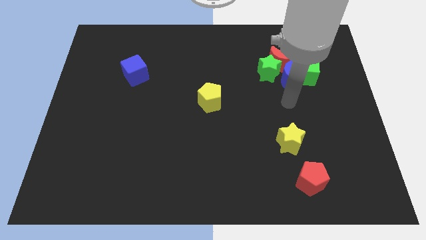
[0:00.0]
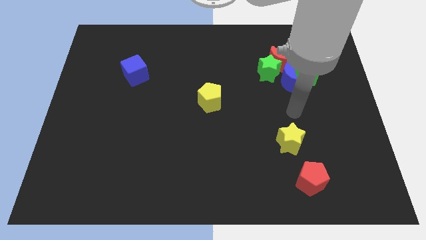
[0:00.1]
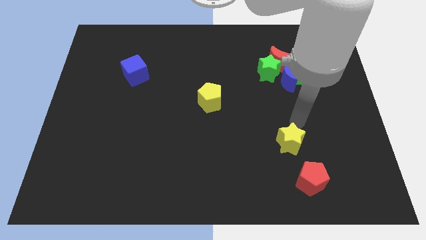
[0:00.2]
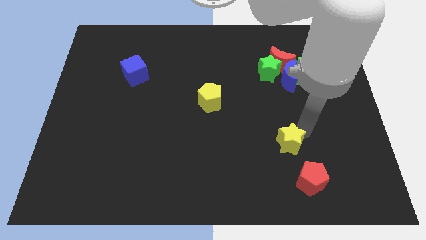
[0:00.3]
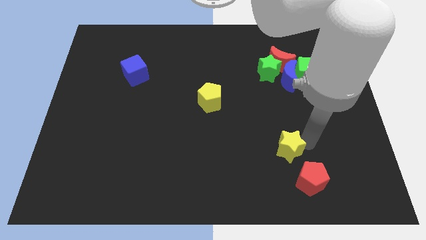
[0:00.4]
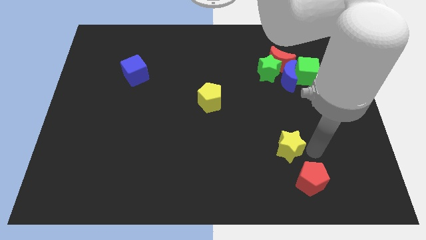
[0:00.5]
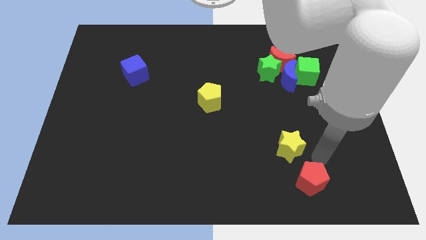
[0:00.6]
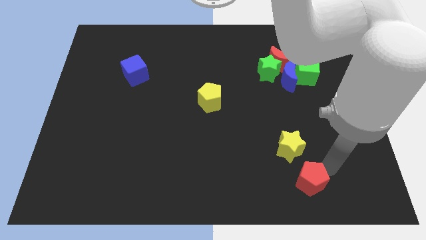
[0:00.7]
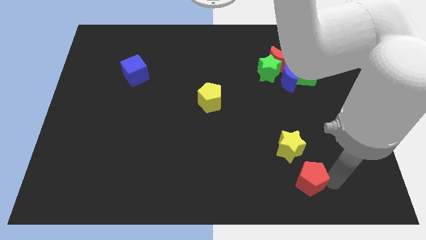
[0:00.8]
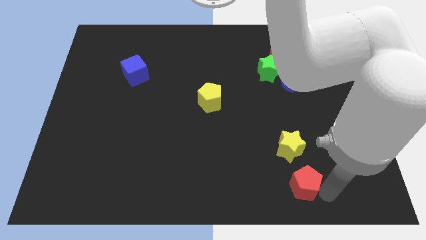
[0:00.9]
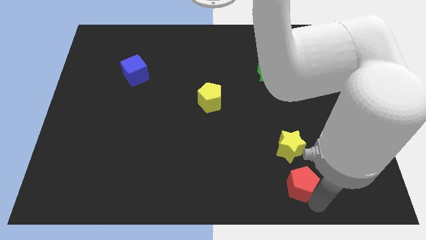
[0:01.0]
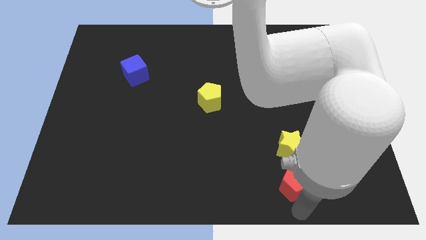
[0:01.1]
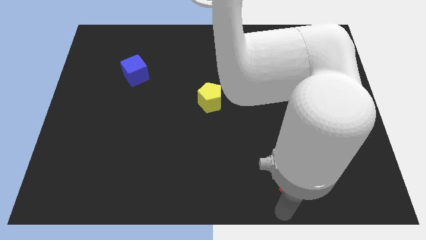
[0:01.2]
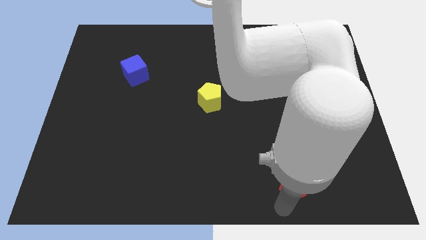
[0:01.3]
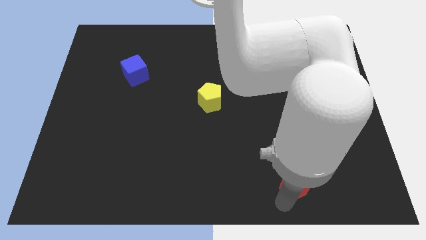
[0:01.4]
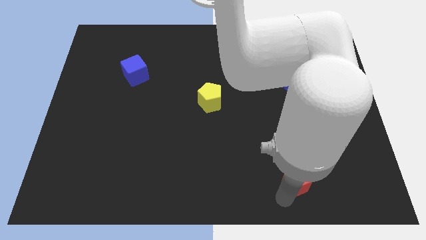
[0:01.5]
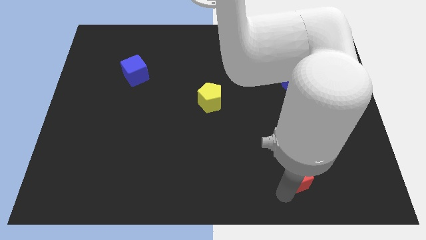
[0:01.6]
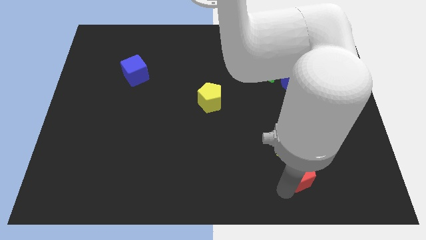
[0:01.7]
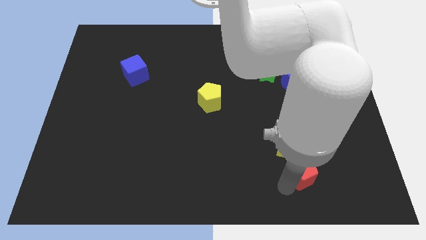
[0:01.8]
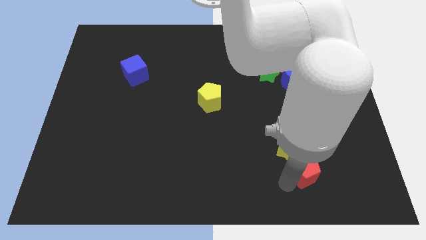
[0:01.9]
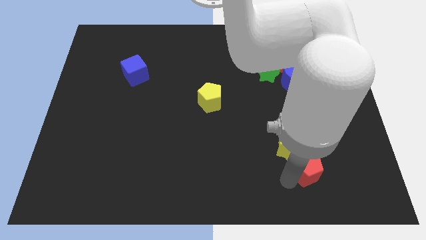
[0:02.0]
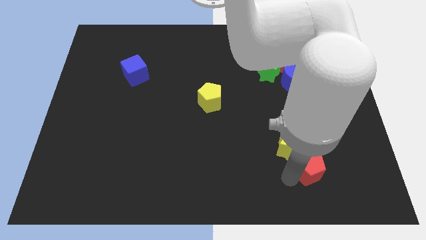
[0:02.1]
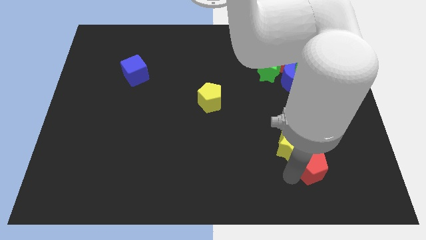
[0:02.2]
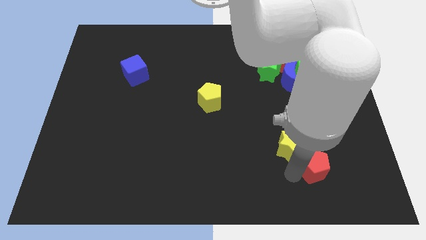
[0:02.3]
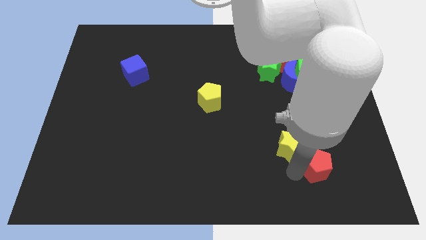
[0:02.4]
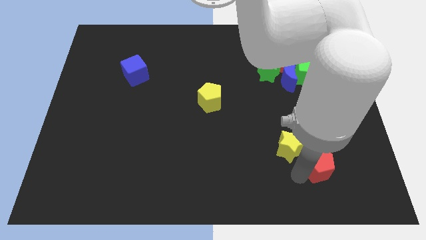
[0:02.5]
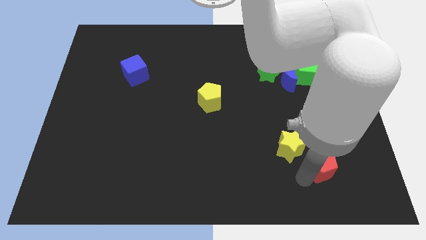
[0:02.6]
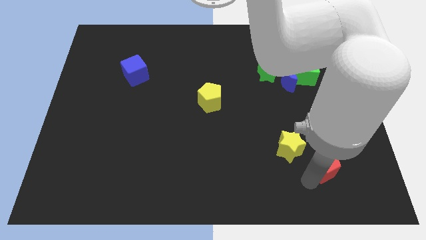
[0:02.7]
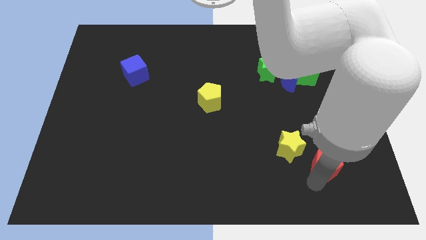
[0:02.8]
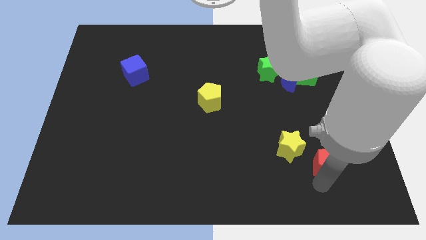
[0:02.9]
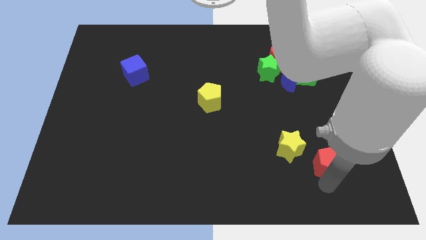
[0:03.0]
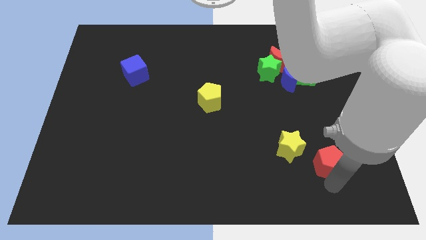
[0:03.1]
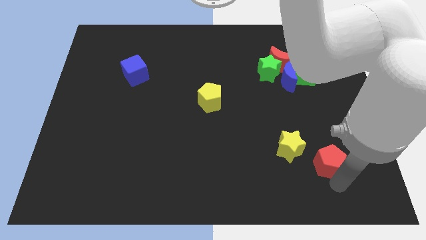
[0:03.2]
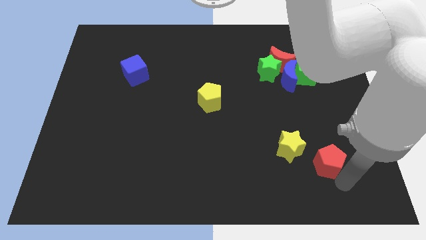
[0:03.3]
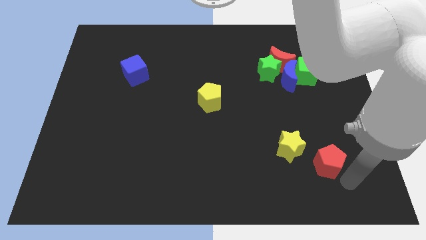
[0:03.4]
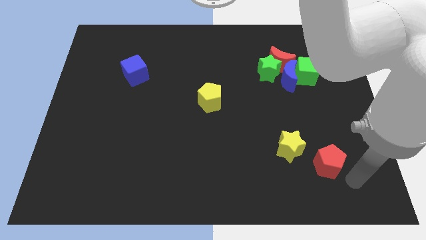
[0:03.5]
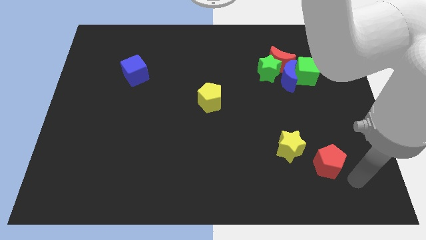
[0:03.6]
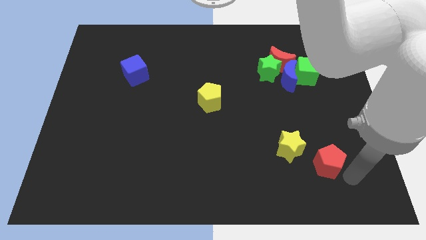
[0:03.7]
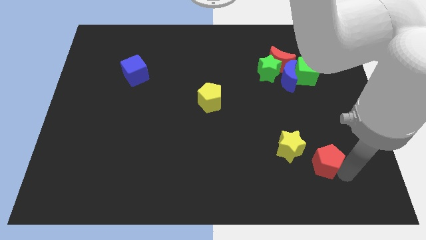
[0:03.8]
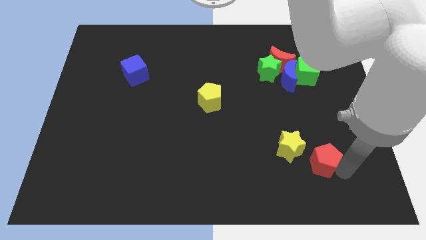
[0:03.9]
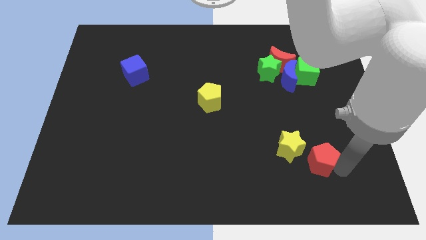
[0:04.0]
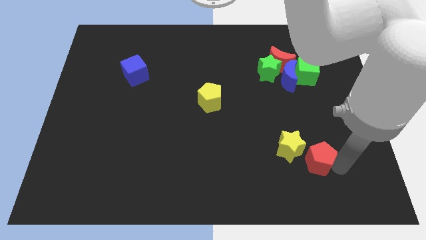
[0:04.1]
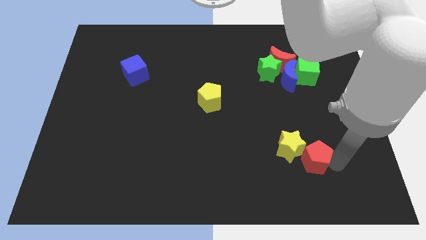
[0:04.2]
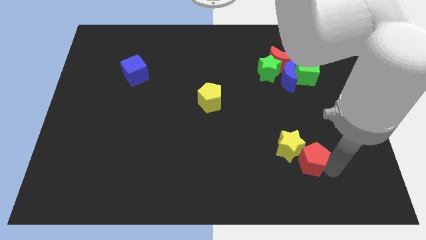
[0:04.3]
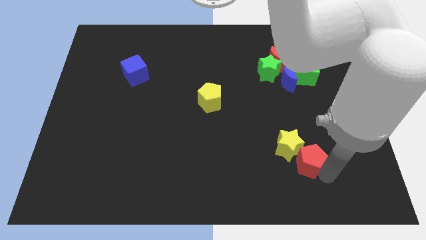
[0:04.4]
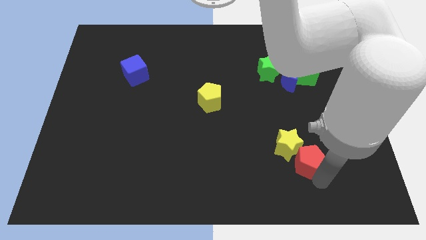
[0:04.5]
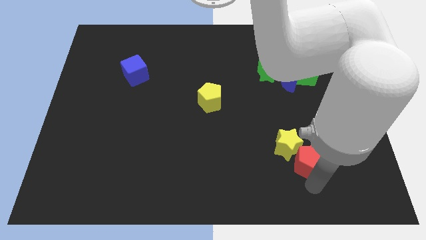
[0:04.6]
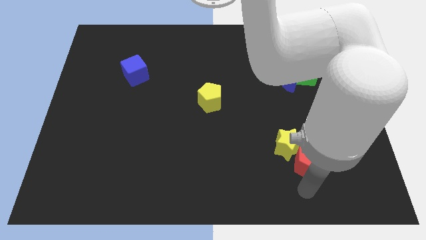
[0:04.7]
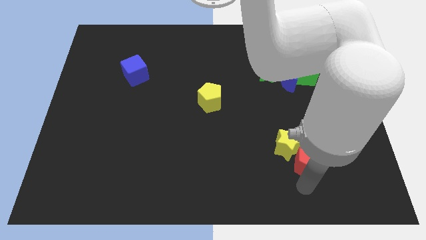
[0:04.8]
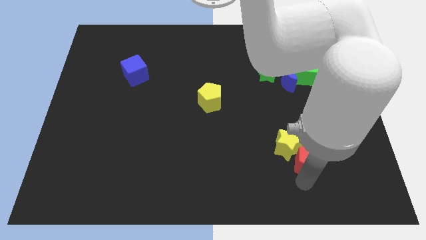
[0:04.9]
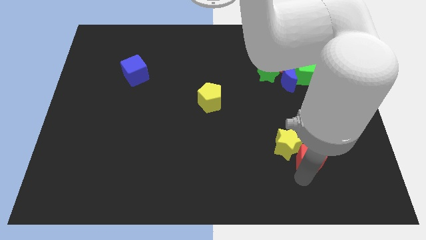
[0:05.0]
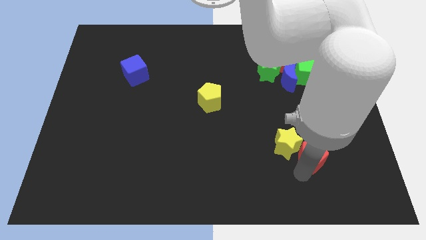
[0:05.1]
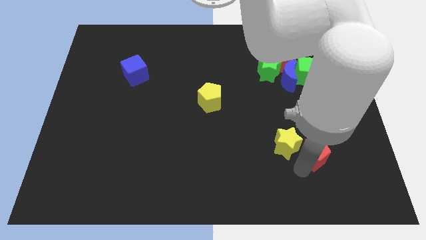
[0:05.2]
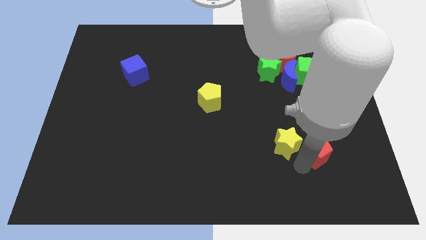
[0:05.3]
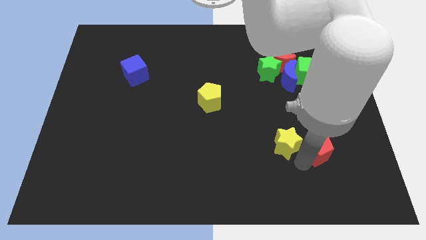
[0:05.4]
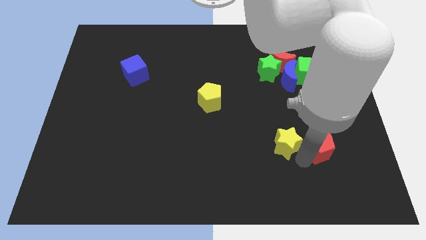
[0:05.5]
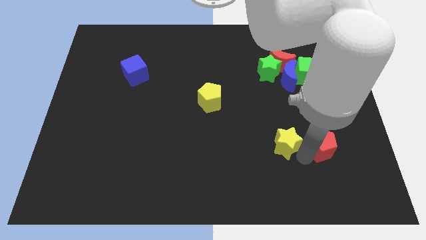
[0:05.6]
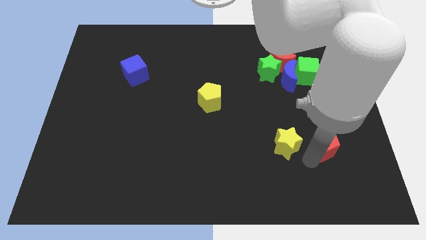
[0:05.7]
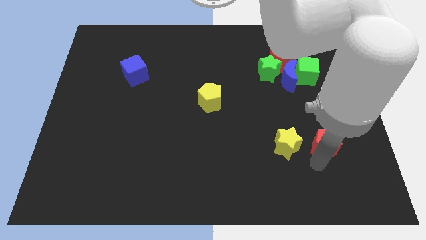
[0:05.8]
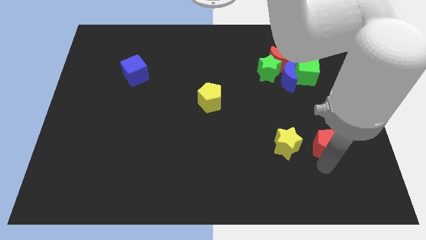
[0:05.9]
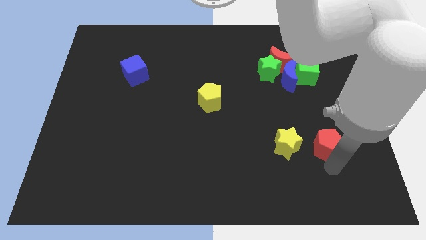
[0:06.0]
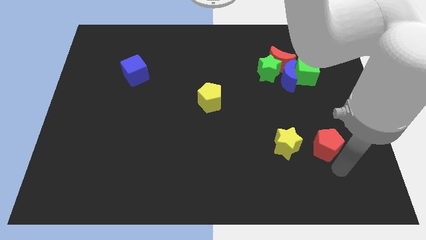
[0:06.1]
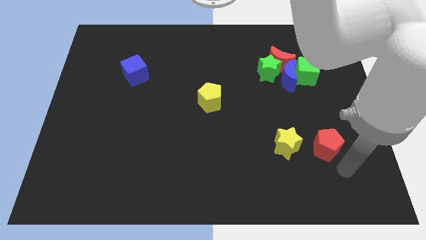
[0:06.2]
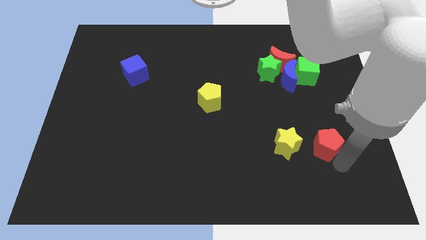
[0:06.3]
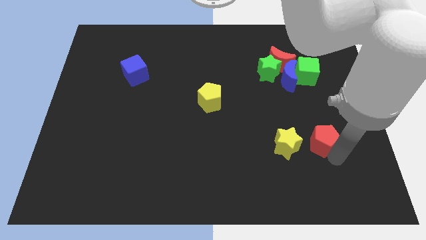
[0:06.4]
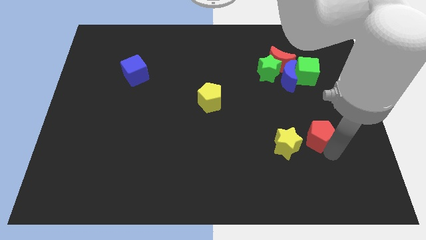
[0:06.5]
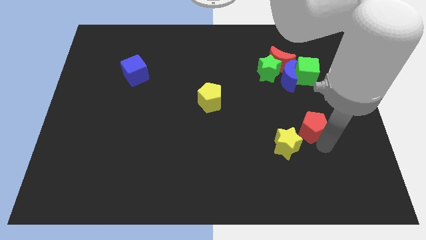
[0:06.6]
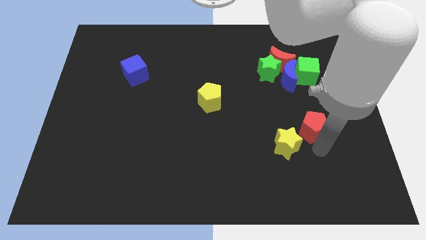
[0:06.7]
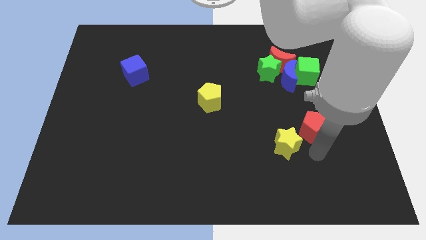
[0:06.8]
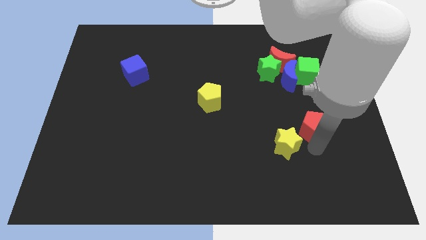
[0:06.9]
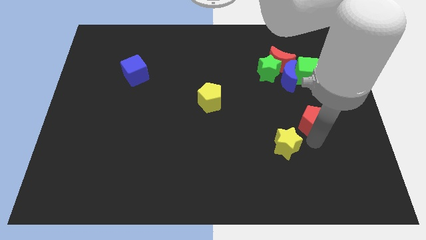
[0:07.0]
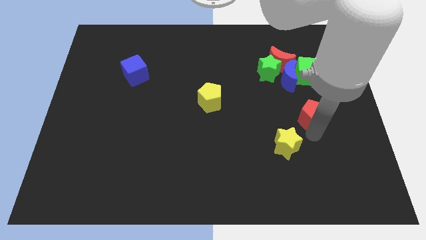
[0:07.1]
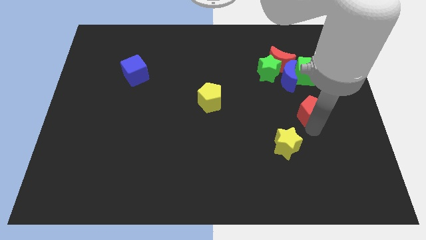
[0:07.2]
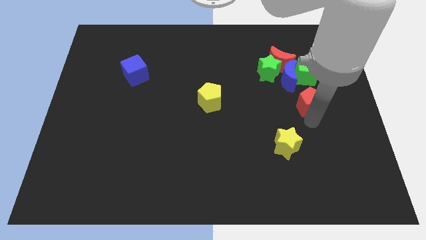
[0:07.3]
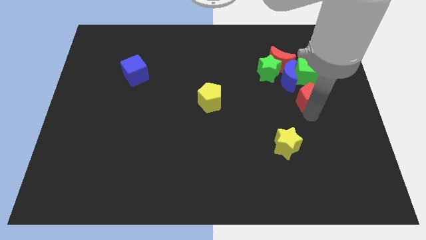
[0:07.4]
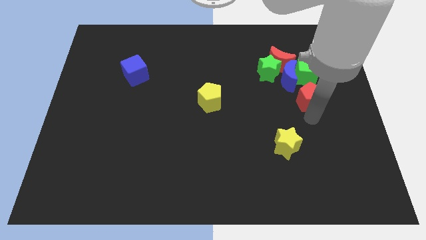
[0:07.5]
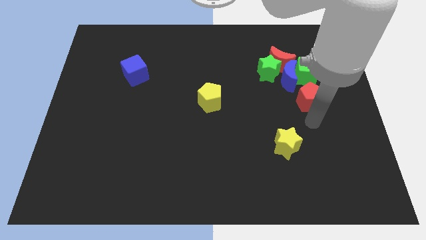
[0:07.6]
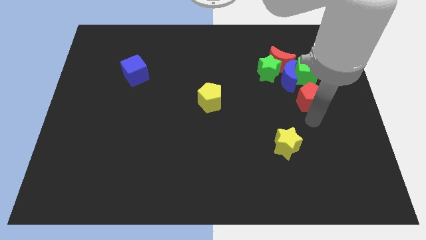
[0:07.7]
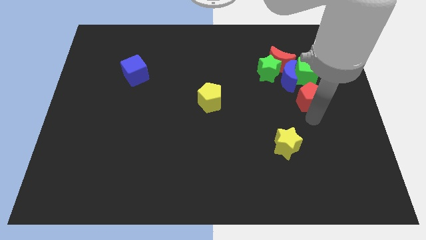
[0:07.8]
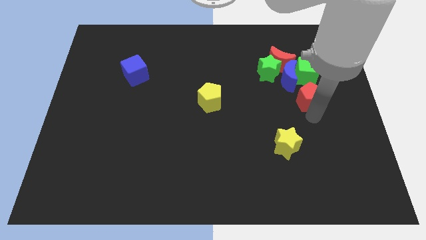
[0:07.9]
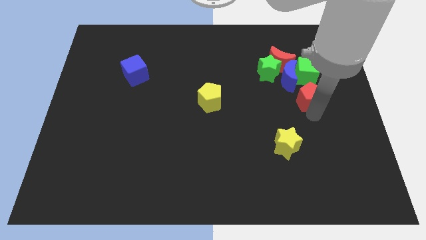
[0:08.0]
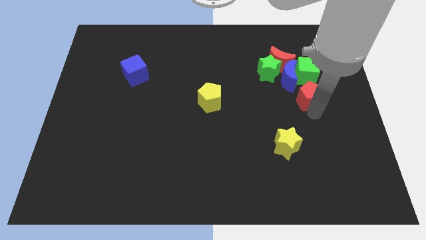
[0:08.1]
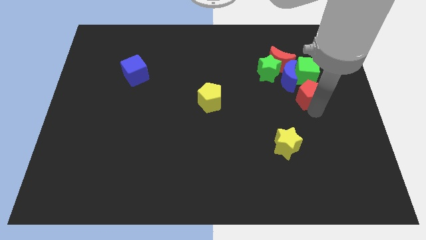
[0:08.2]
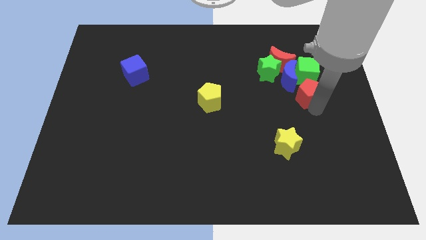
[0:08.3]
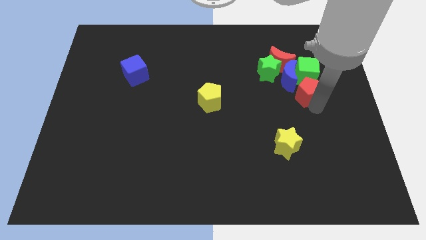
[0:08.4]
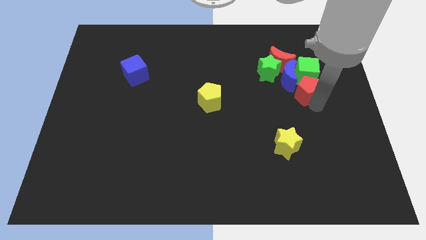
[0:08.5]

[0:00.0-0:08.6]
move the red pentagon to the green cube
